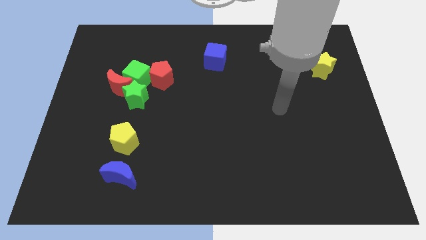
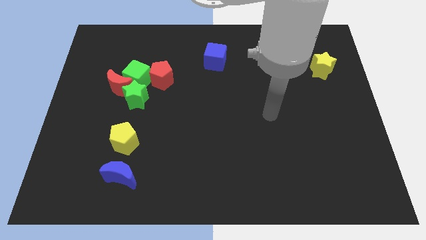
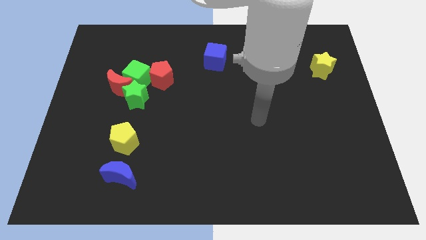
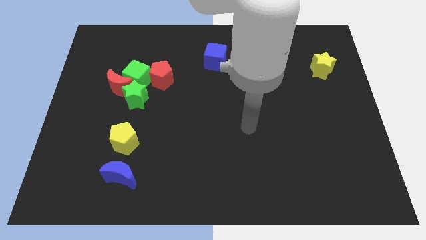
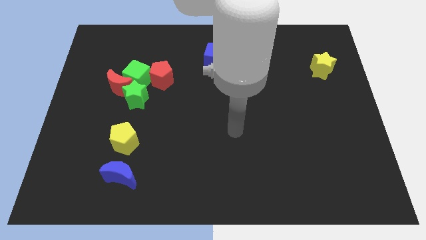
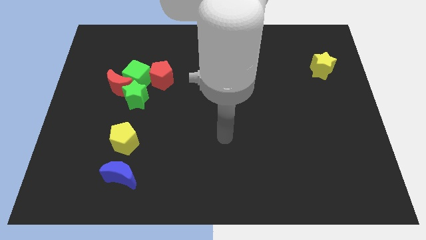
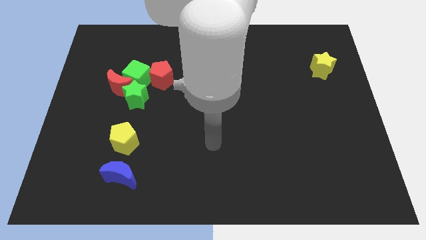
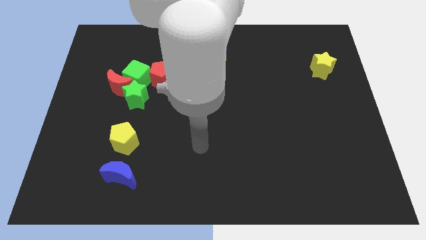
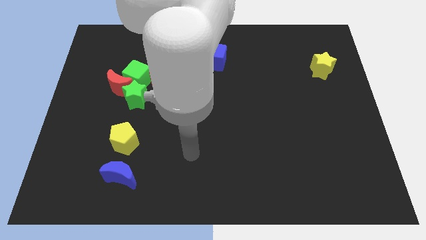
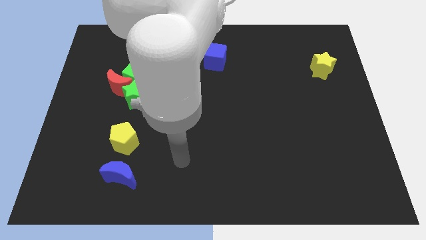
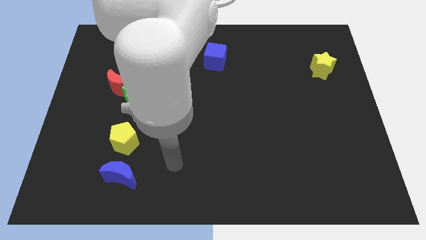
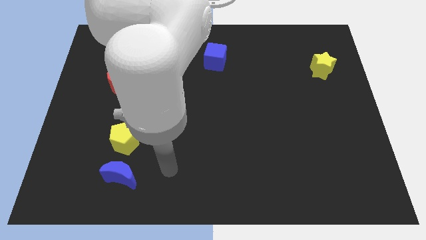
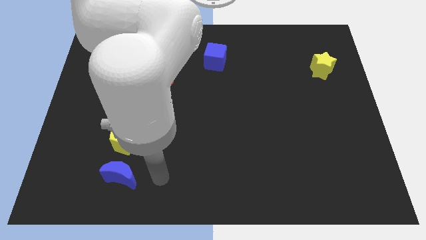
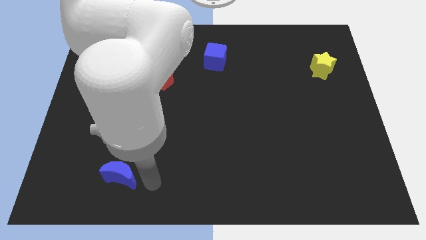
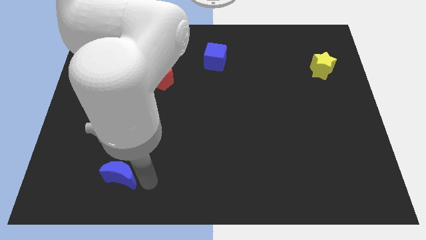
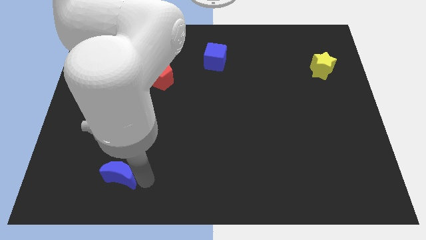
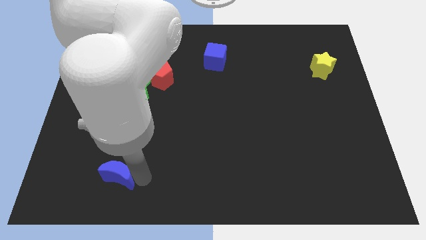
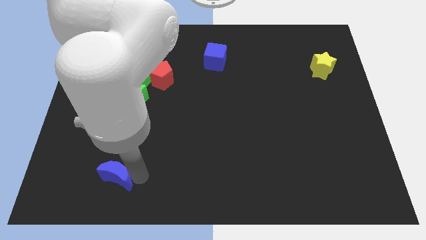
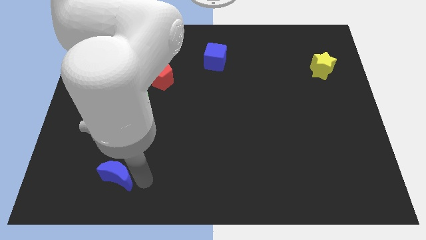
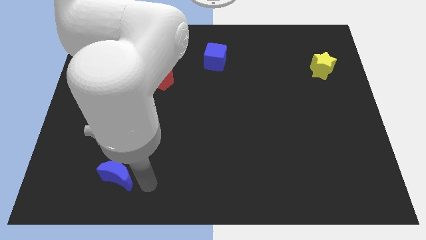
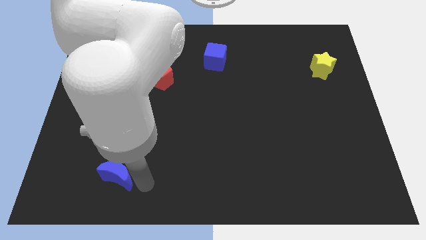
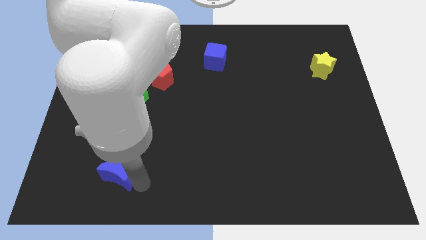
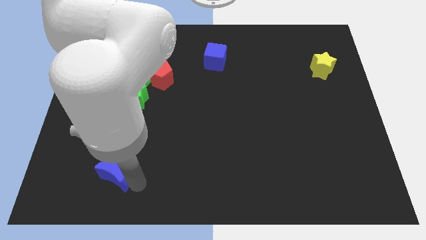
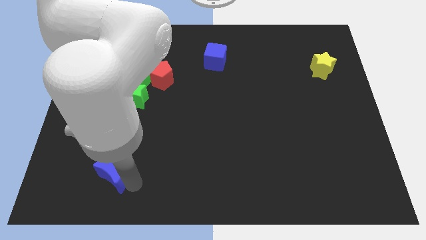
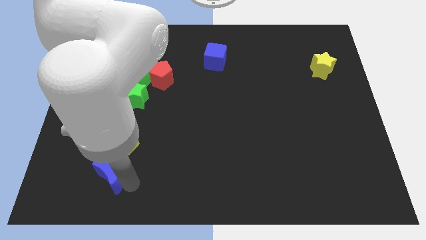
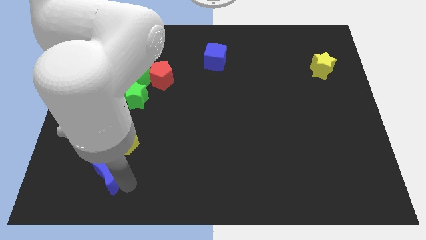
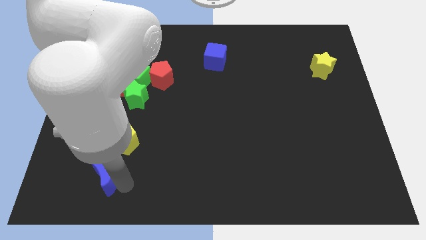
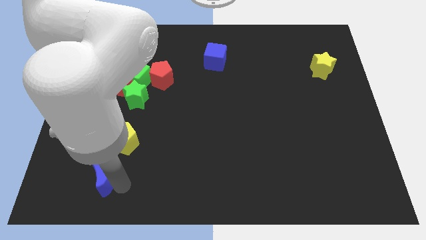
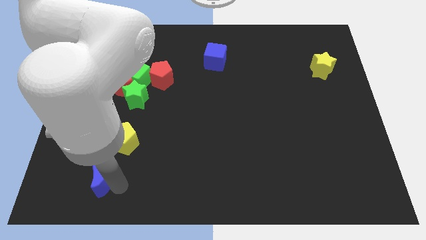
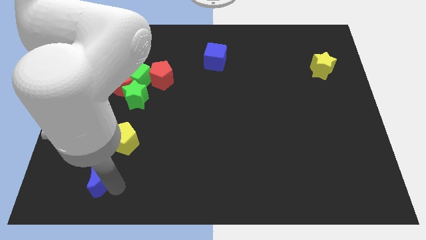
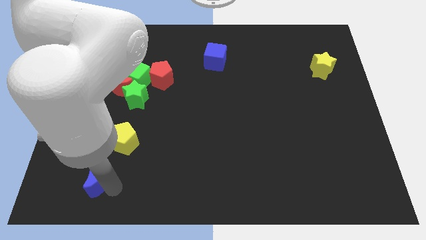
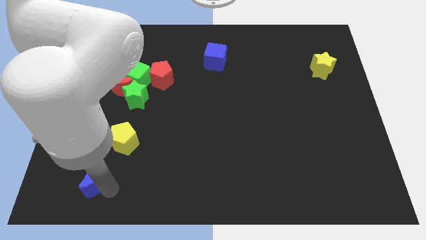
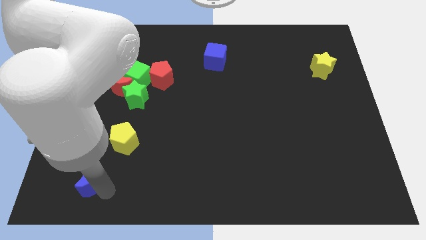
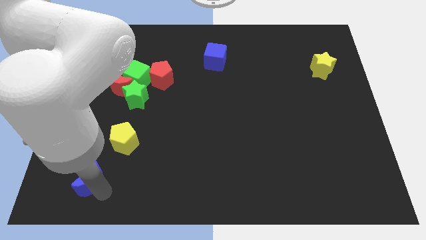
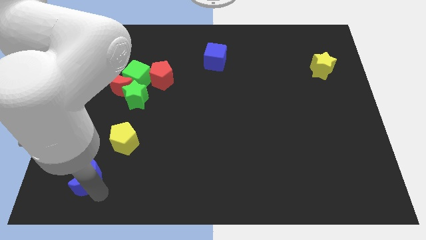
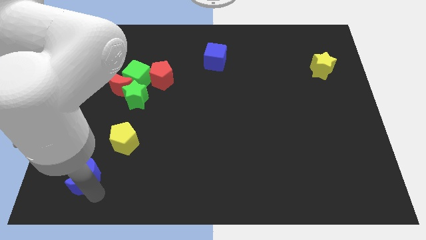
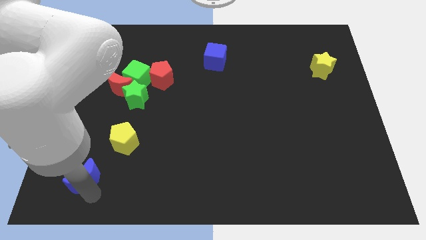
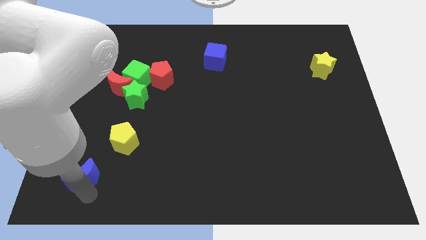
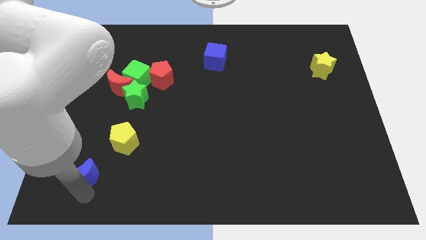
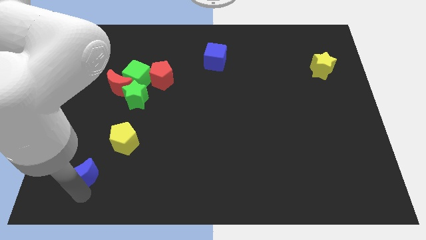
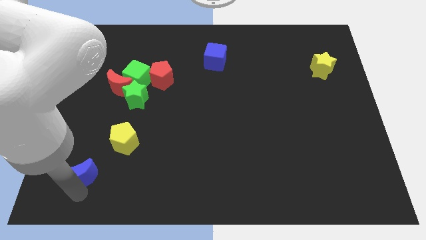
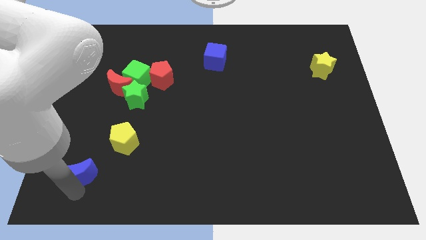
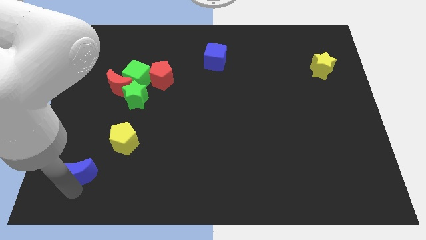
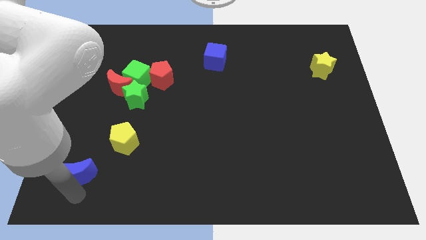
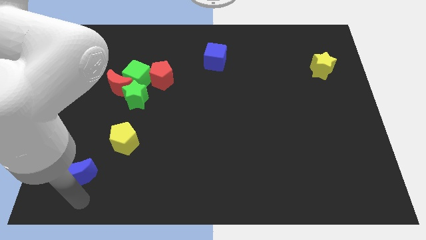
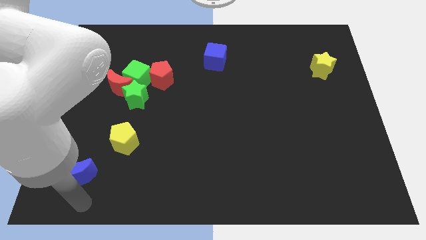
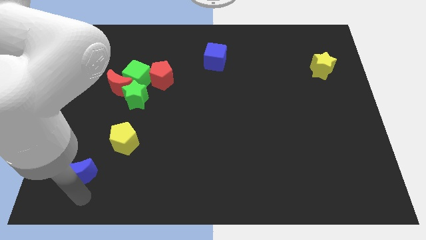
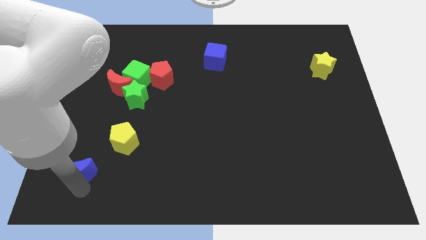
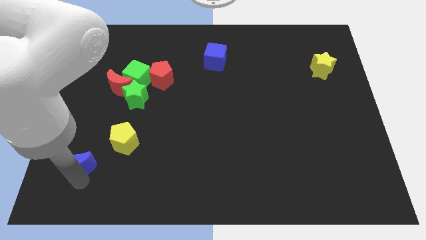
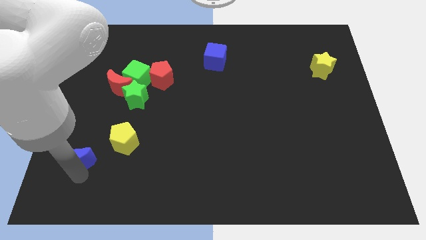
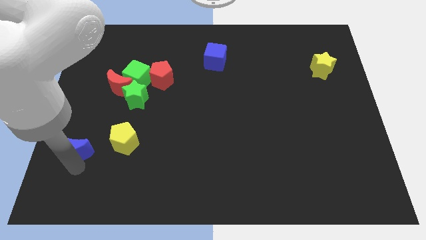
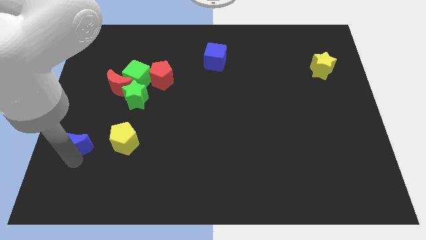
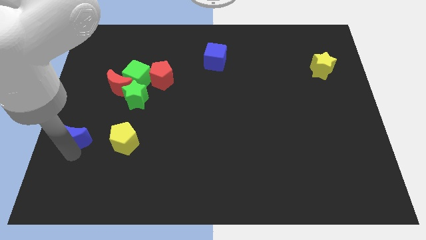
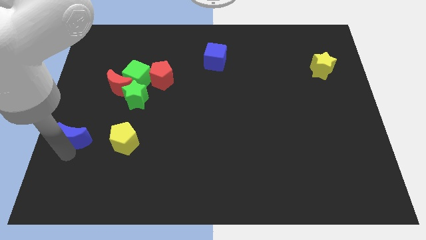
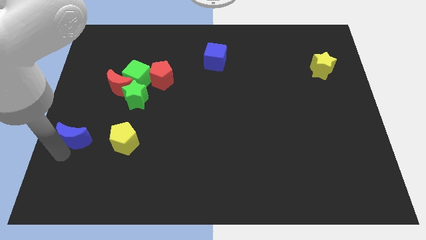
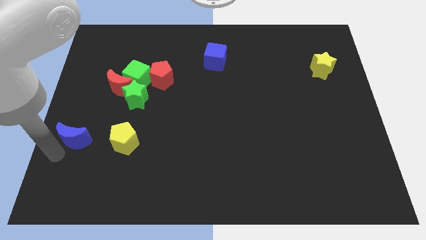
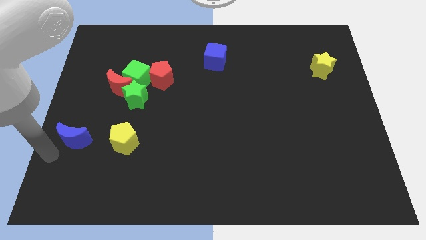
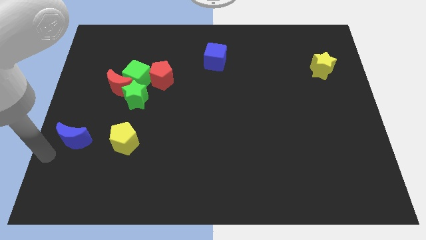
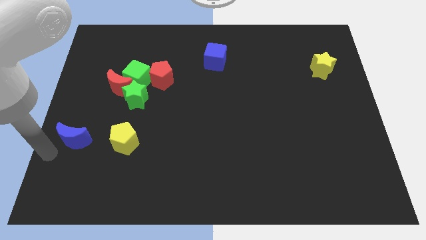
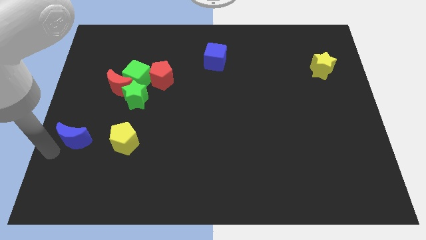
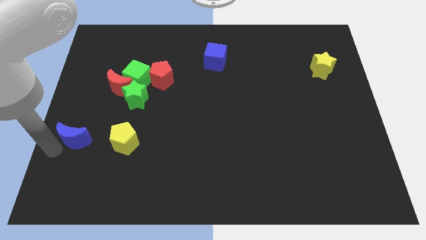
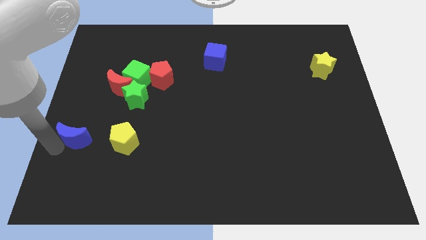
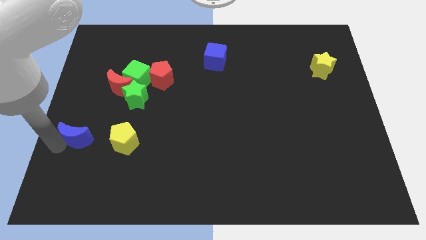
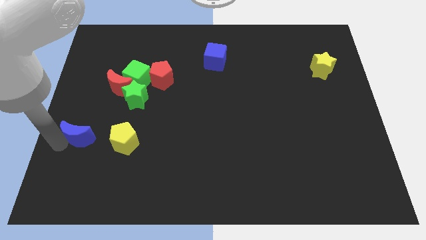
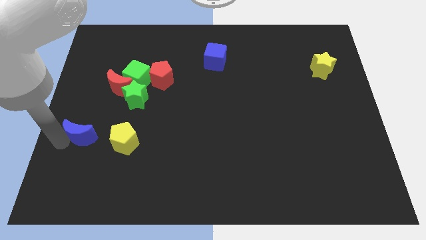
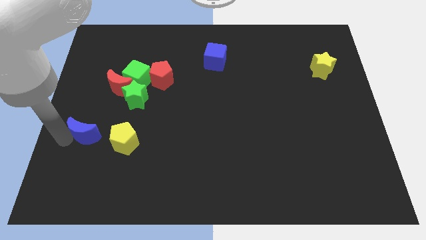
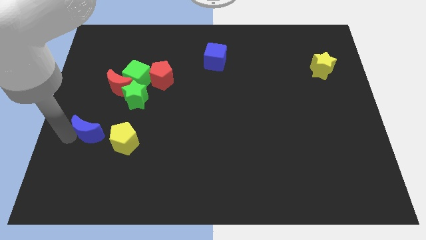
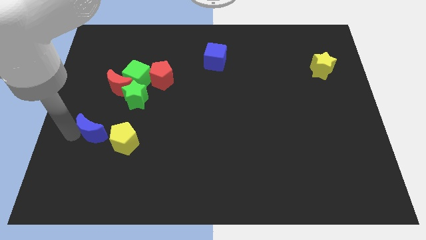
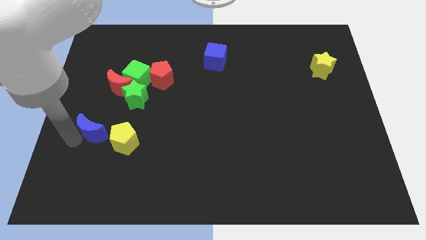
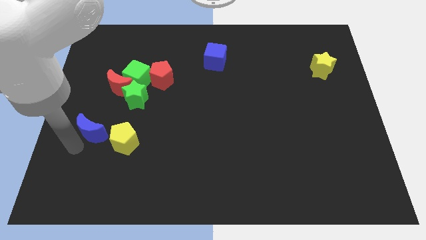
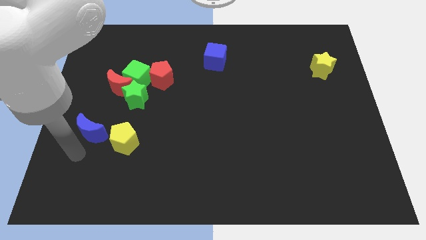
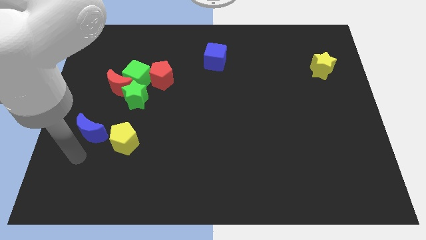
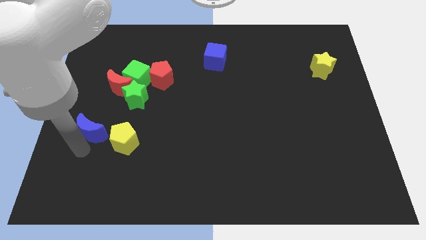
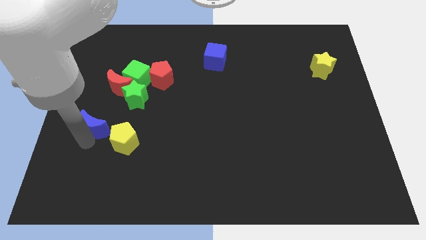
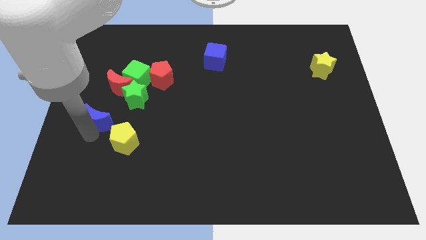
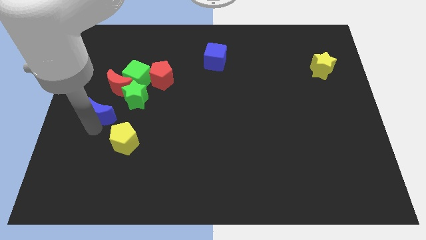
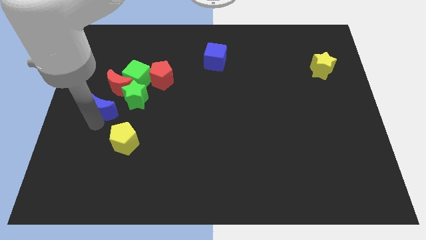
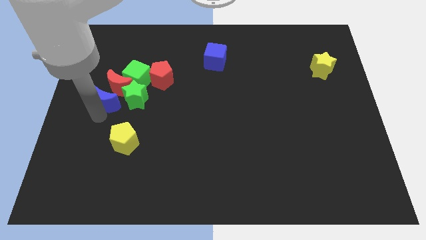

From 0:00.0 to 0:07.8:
push the blue moon to the red moon
